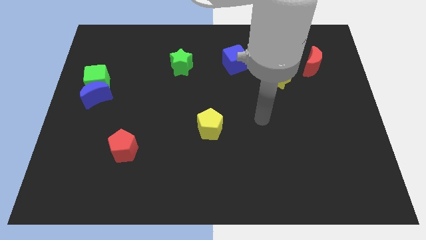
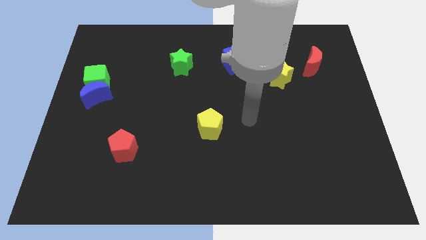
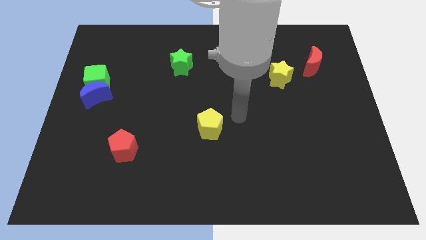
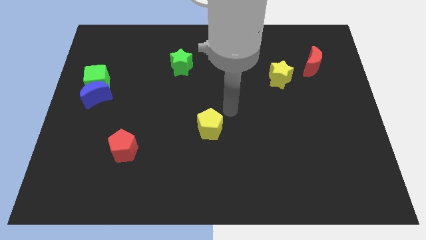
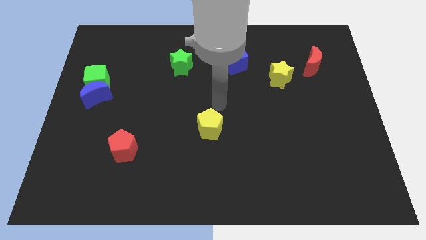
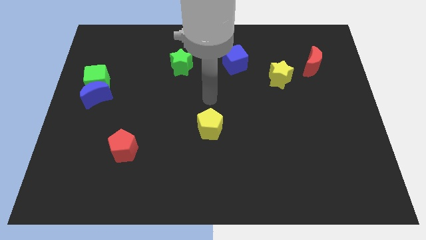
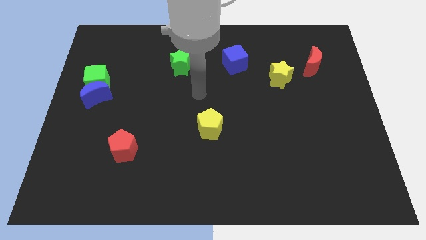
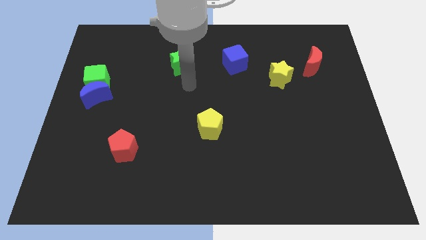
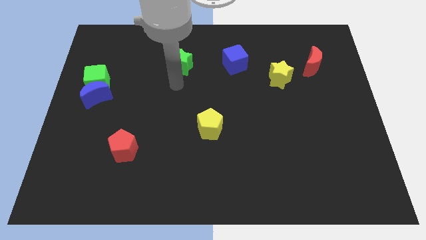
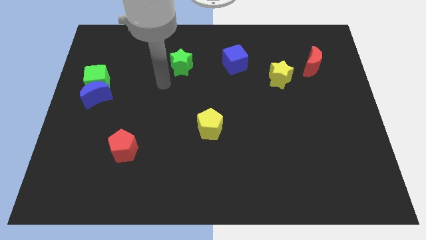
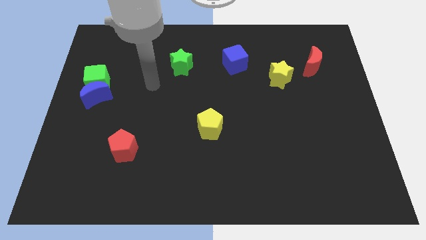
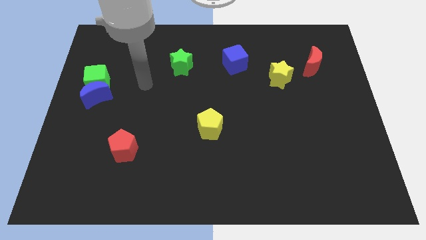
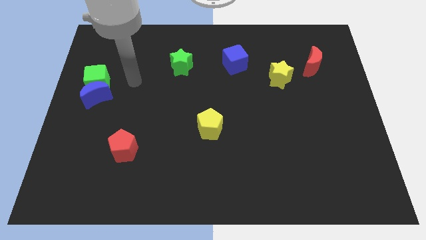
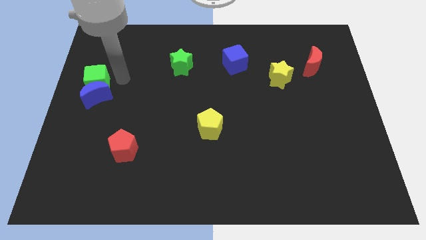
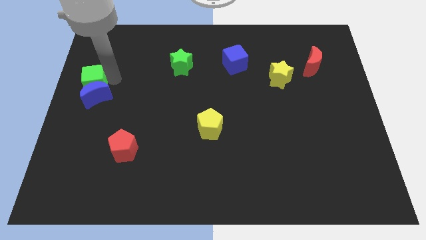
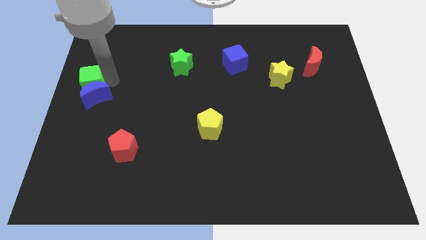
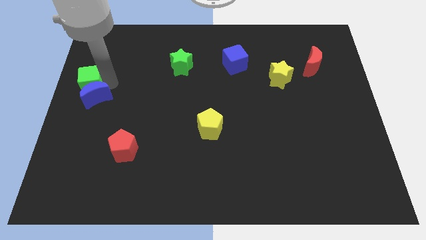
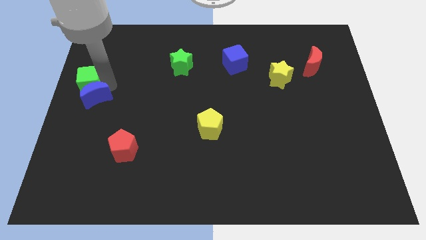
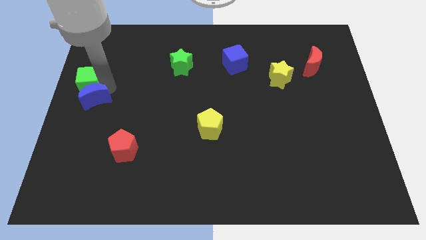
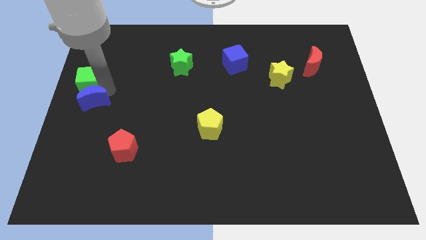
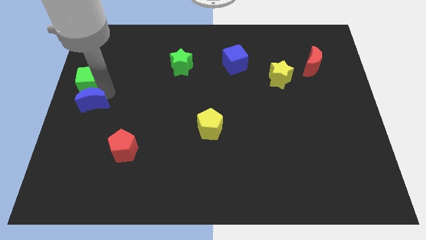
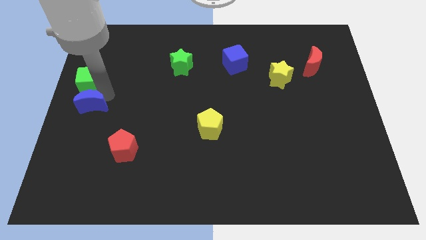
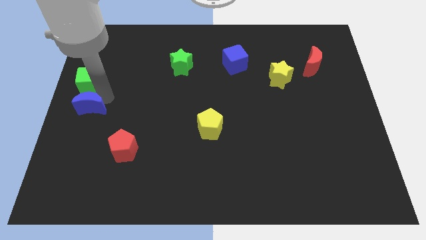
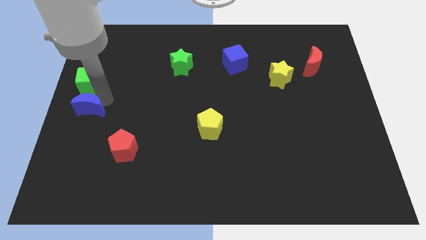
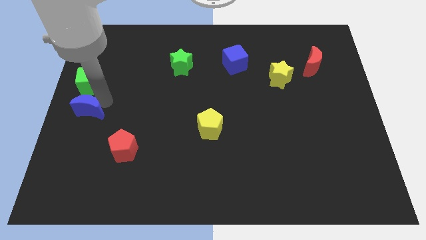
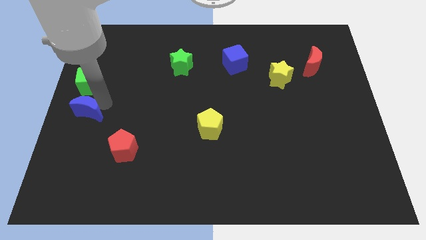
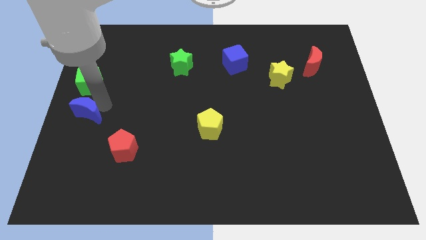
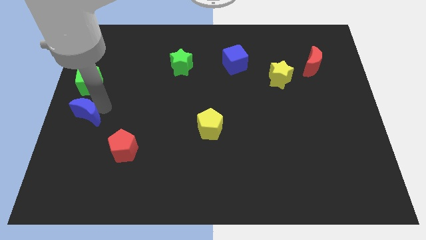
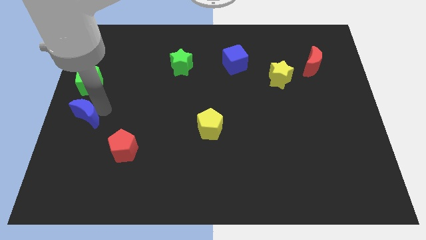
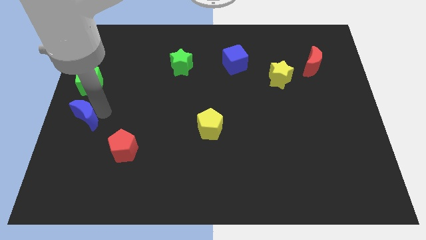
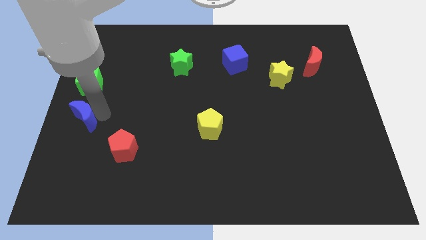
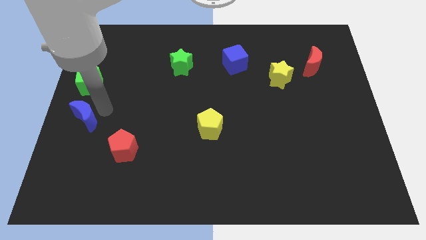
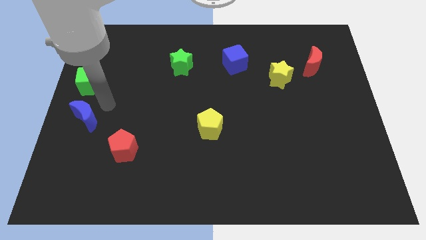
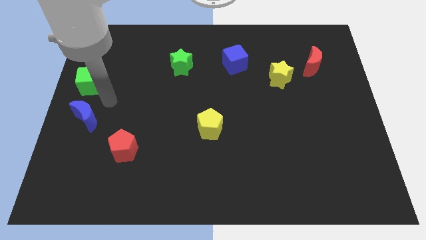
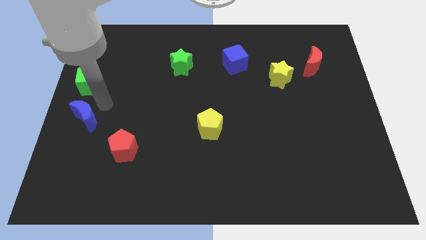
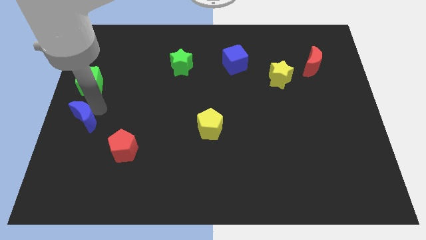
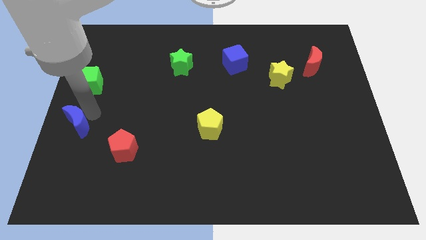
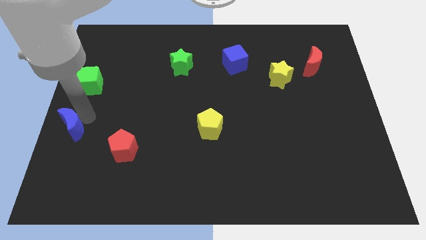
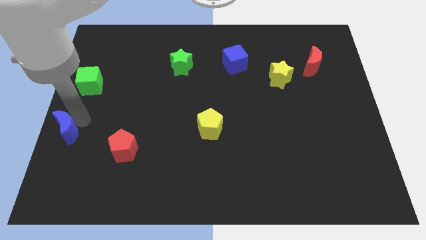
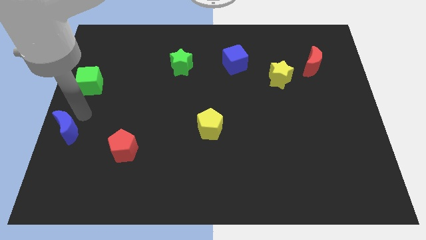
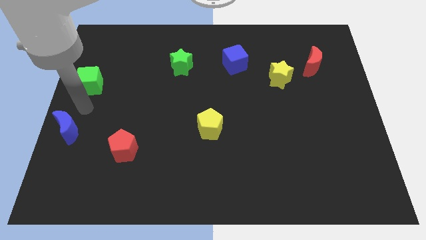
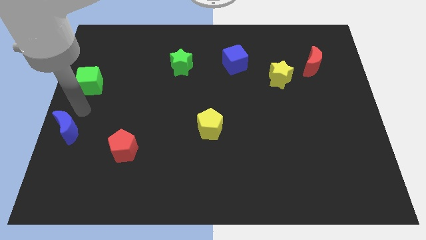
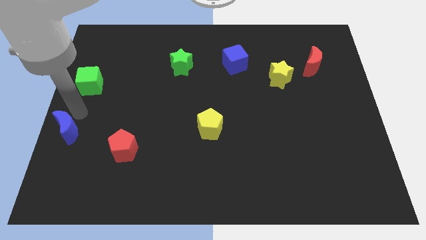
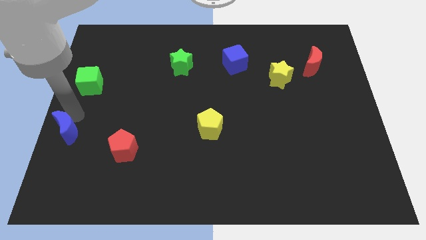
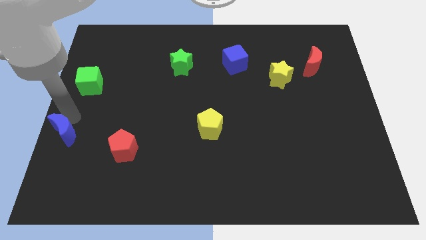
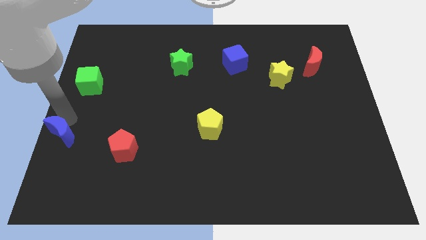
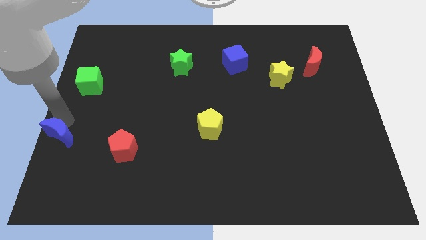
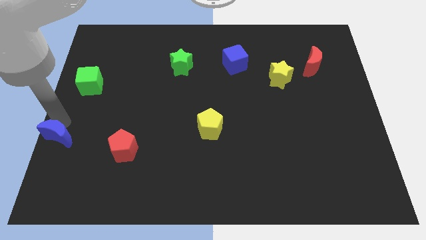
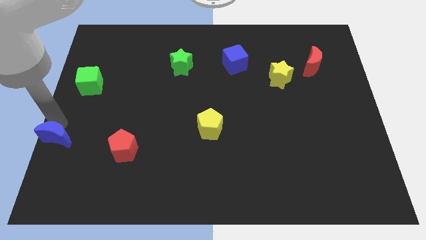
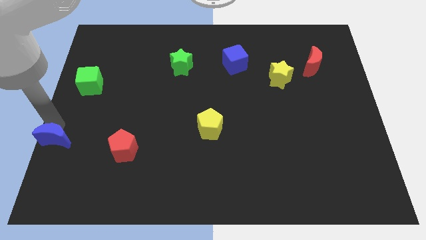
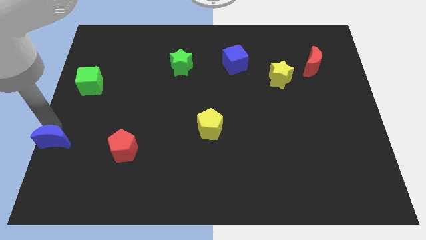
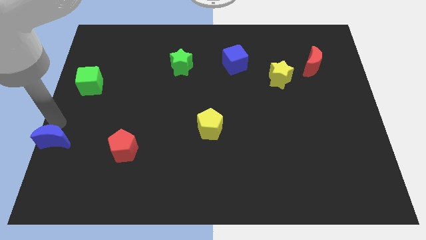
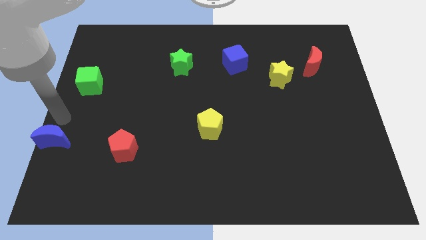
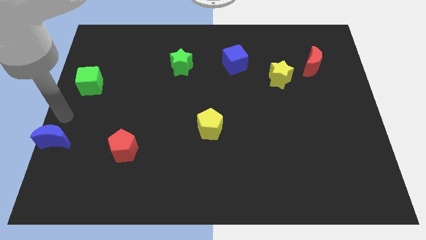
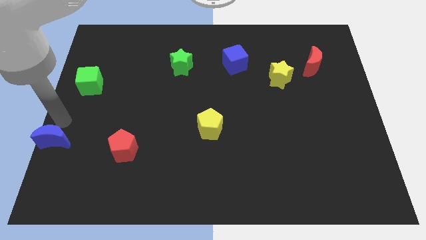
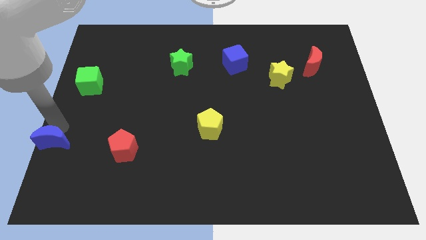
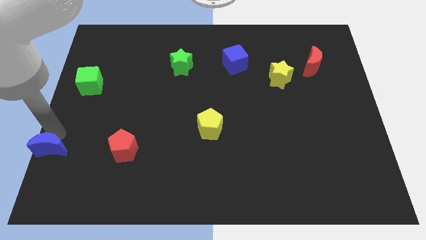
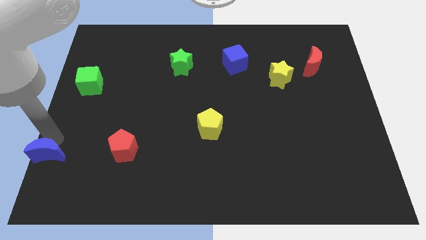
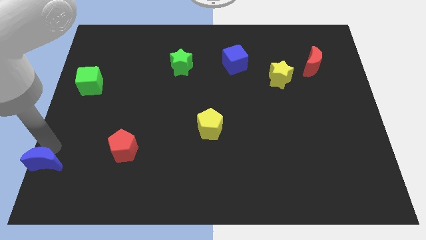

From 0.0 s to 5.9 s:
move the blue moon to the bottom left corner

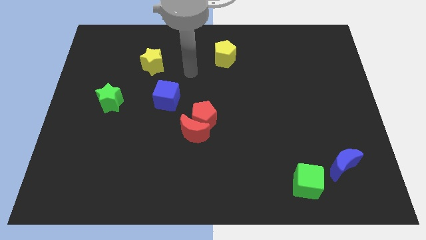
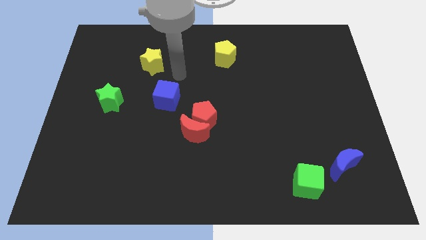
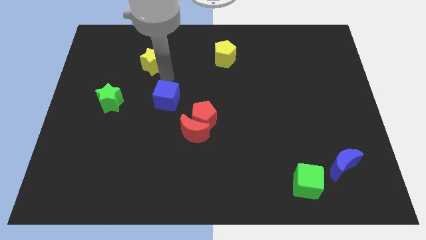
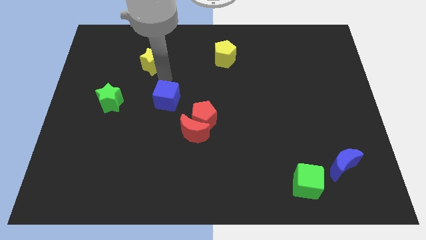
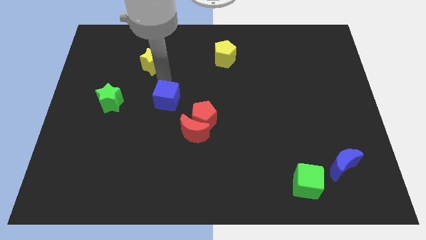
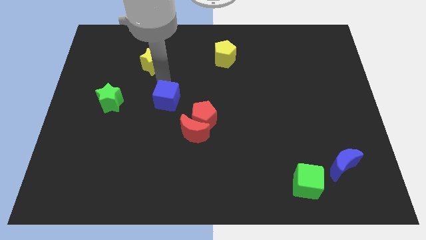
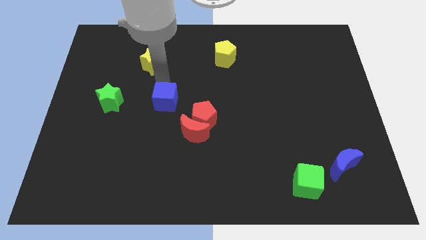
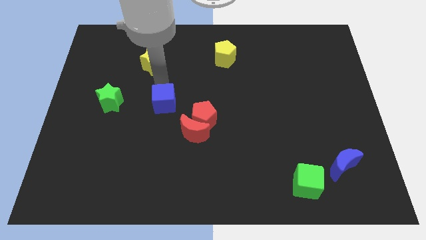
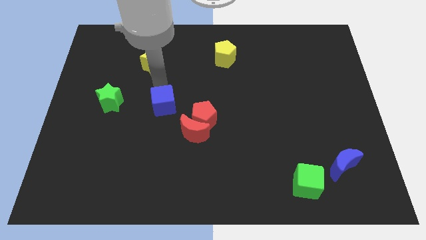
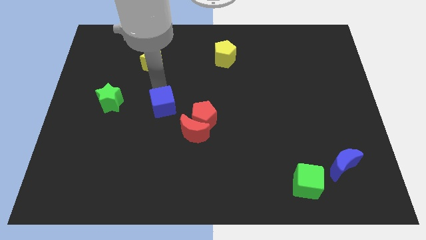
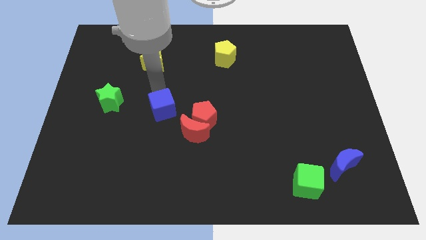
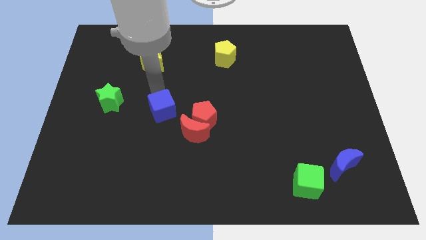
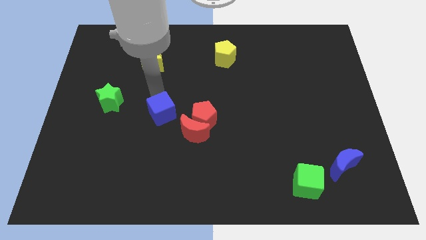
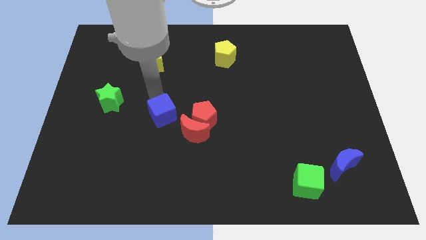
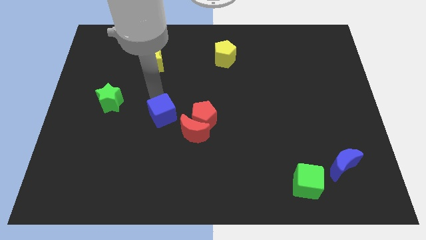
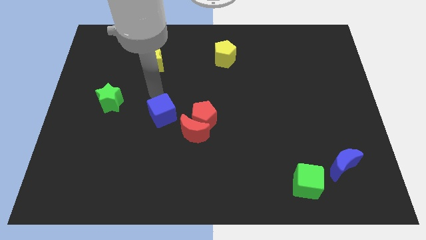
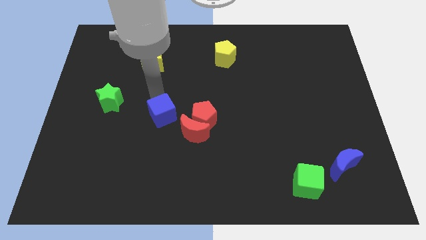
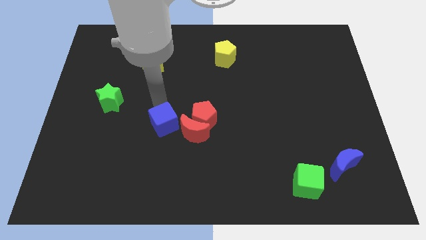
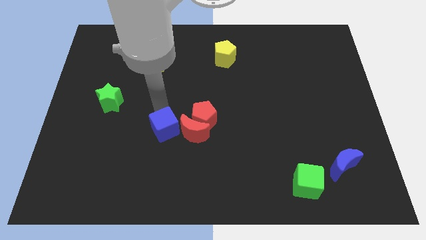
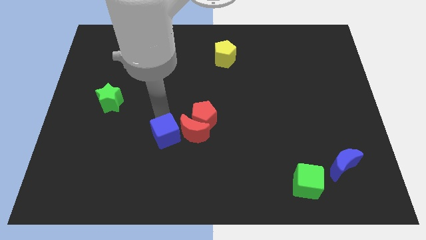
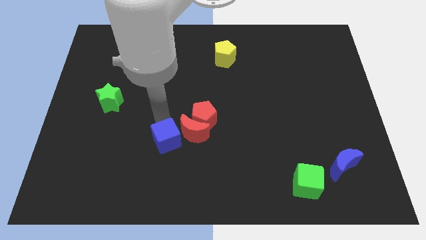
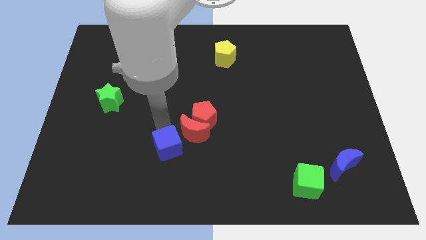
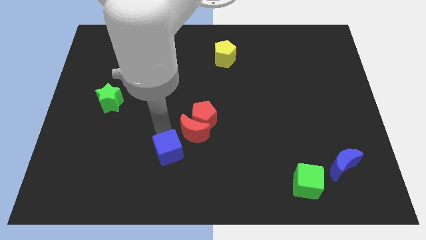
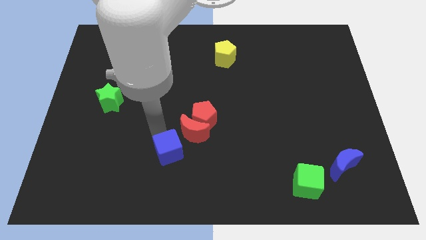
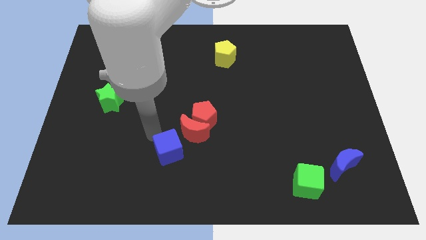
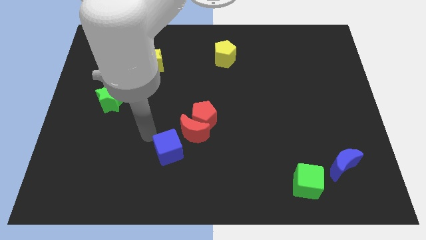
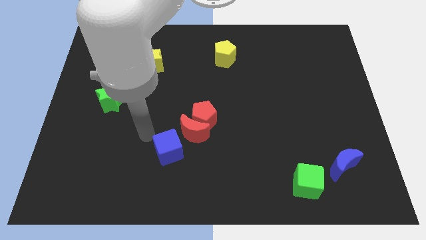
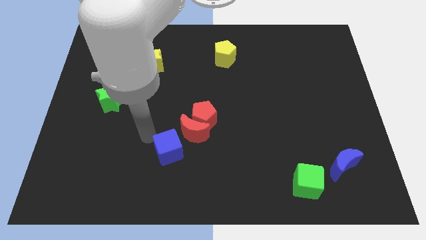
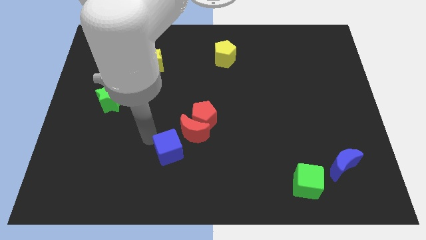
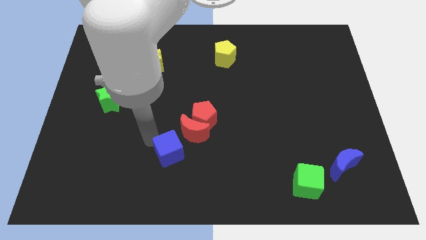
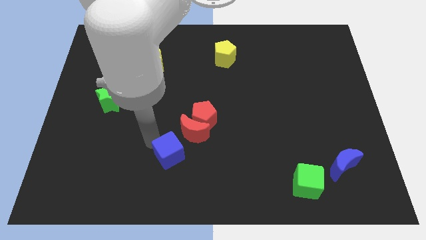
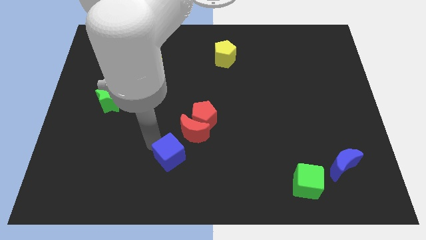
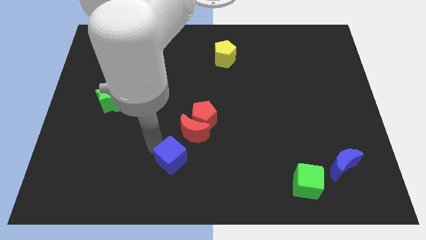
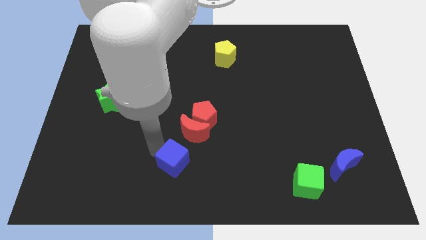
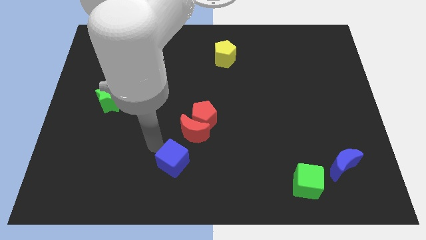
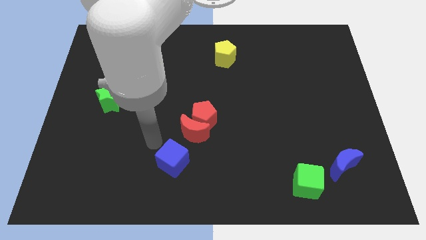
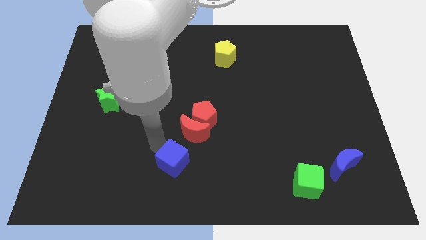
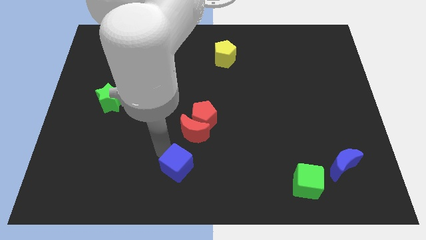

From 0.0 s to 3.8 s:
move the blue cube to the bottom
